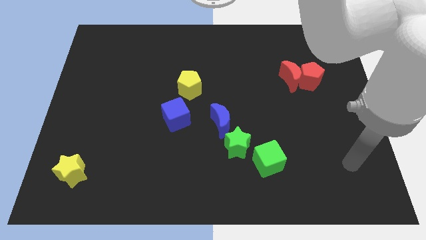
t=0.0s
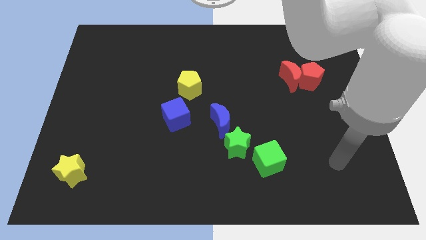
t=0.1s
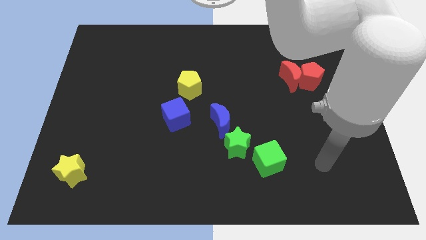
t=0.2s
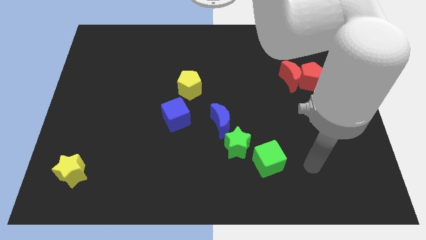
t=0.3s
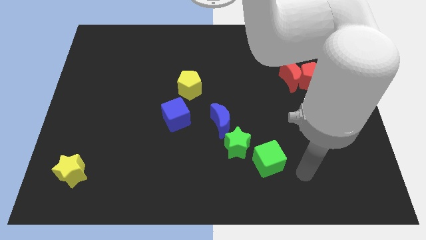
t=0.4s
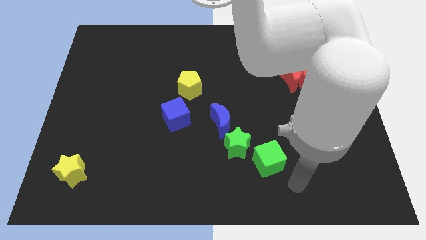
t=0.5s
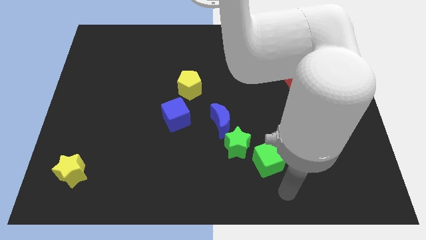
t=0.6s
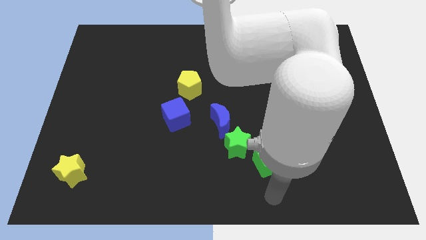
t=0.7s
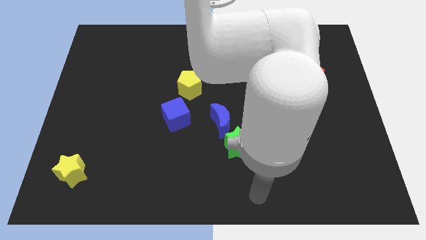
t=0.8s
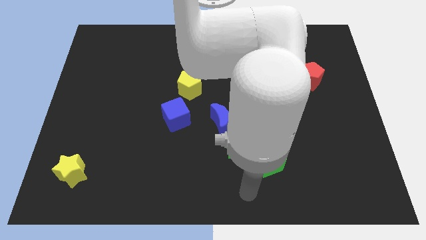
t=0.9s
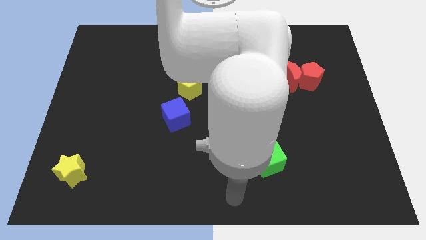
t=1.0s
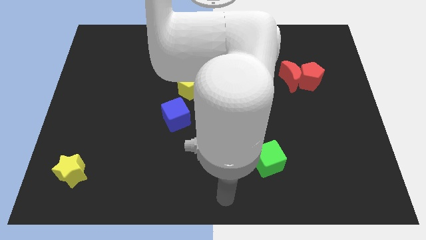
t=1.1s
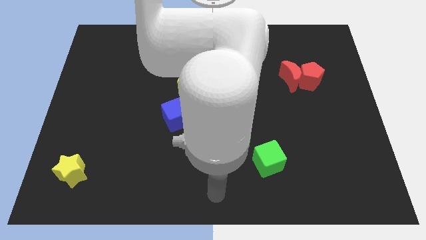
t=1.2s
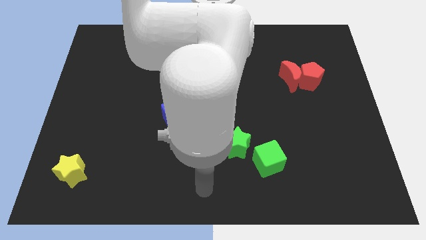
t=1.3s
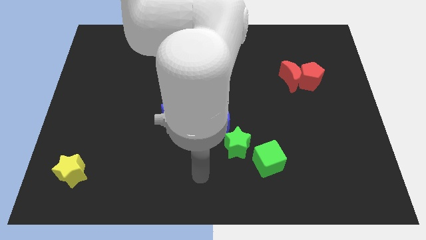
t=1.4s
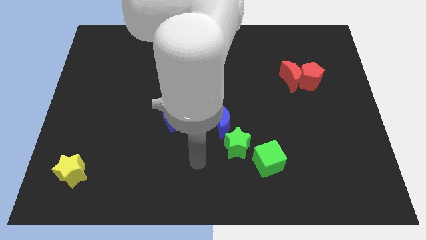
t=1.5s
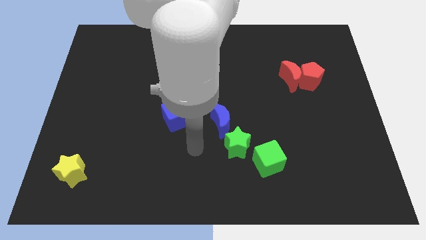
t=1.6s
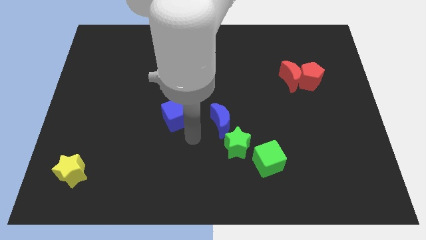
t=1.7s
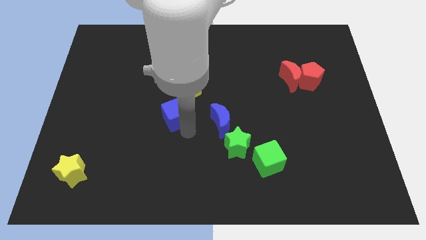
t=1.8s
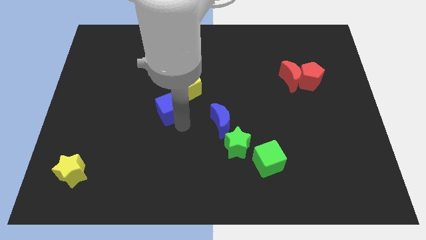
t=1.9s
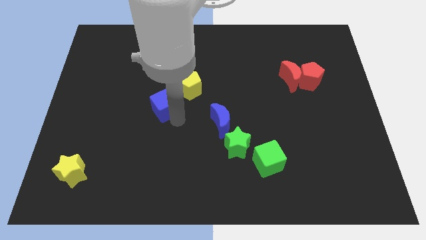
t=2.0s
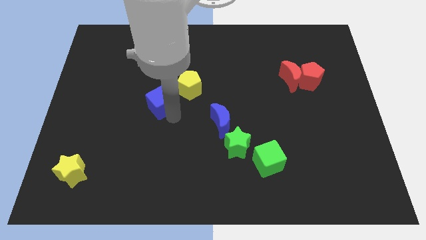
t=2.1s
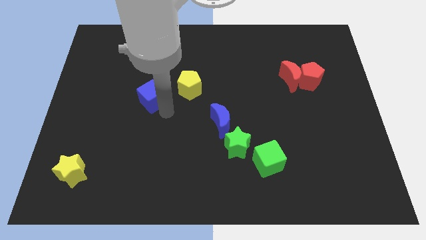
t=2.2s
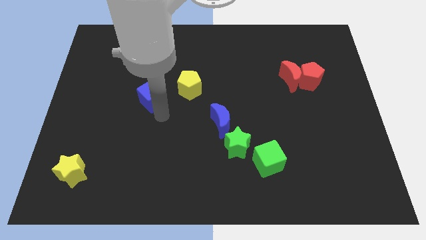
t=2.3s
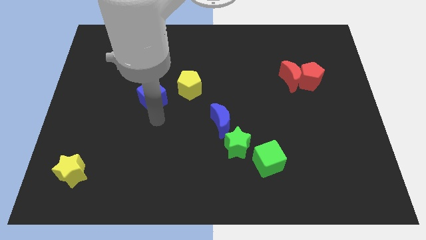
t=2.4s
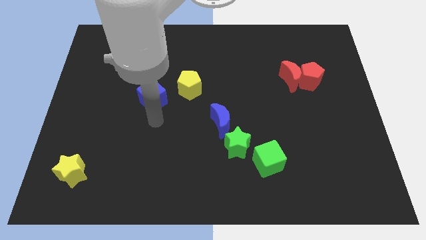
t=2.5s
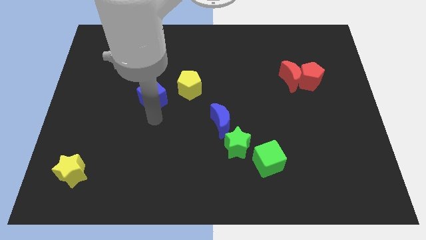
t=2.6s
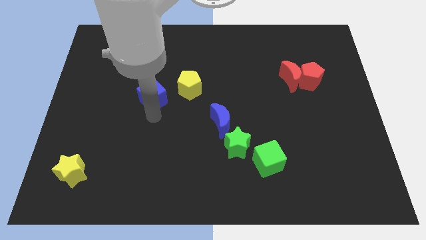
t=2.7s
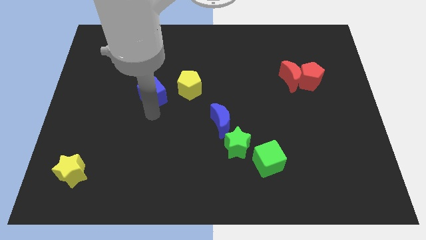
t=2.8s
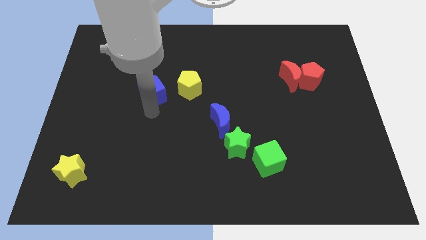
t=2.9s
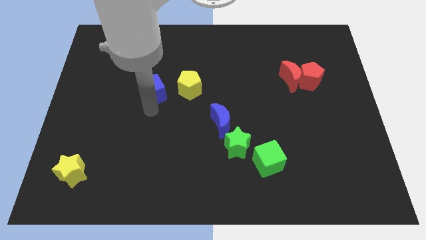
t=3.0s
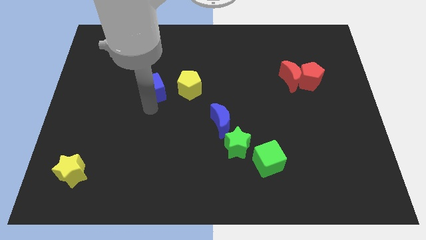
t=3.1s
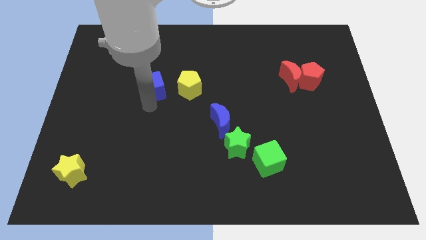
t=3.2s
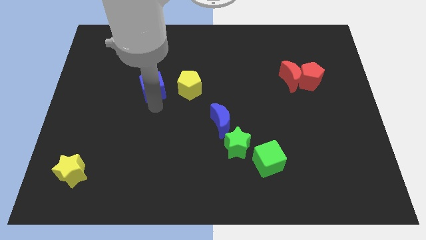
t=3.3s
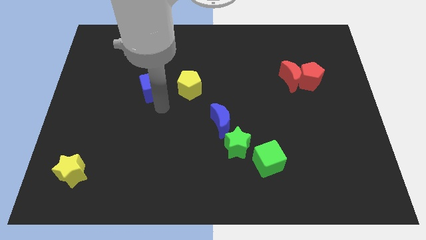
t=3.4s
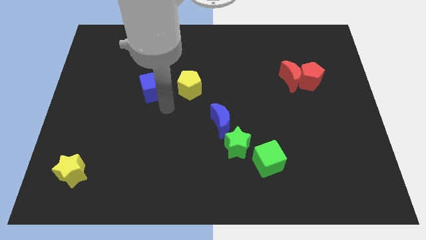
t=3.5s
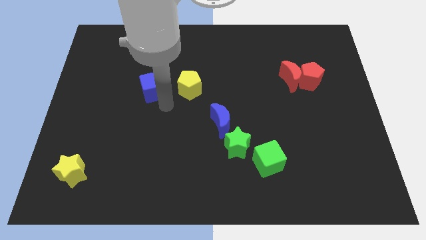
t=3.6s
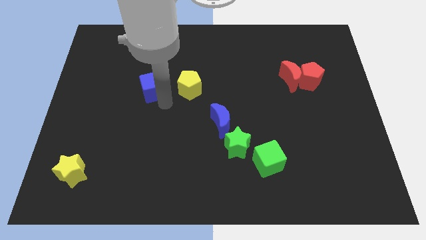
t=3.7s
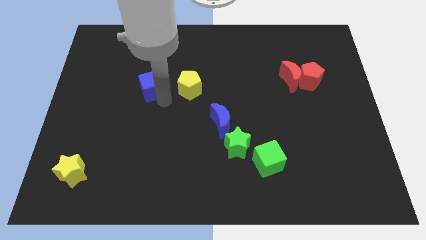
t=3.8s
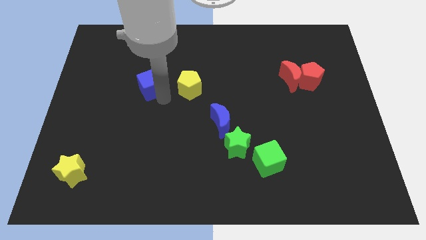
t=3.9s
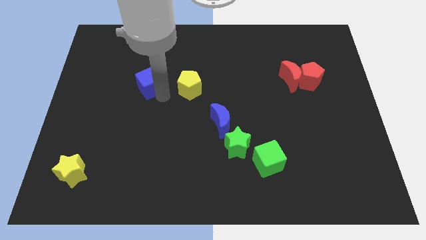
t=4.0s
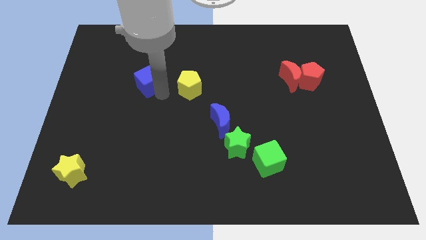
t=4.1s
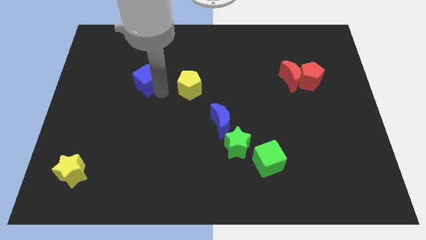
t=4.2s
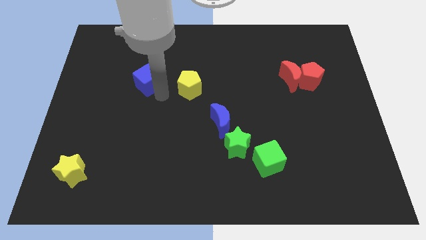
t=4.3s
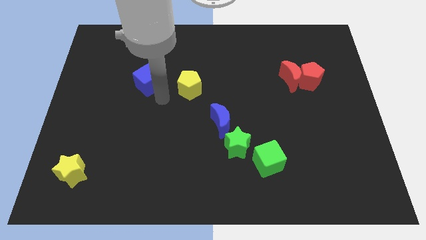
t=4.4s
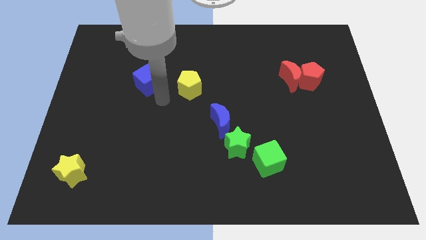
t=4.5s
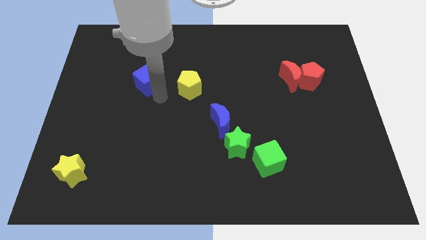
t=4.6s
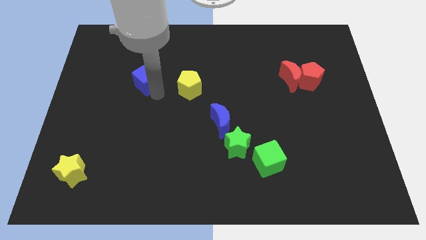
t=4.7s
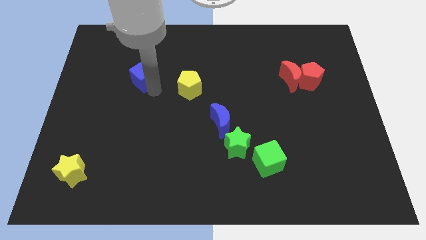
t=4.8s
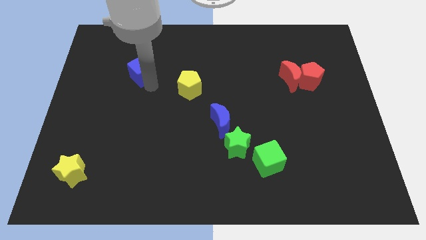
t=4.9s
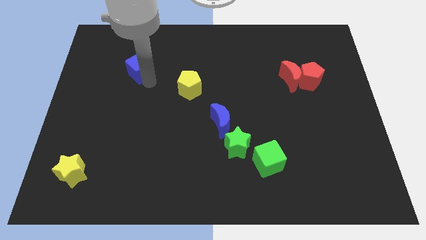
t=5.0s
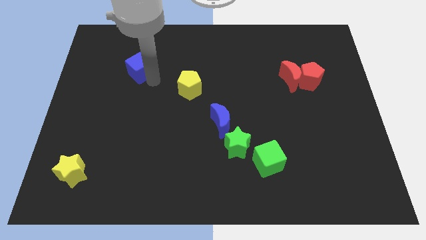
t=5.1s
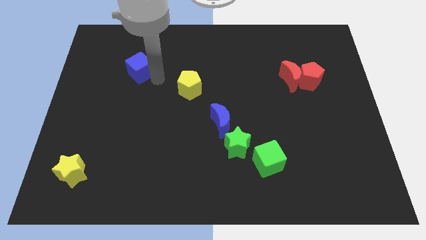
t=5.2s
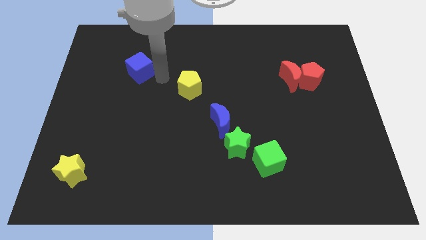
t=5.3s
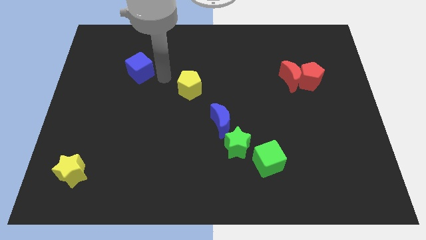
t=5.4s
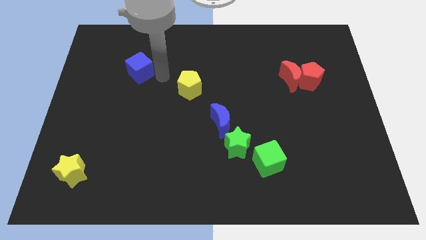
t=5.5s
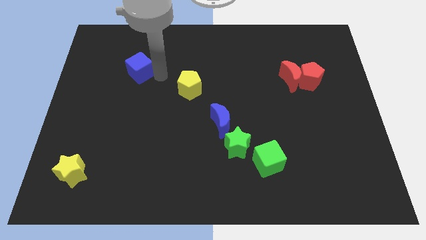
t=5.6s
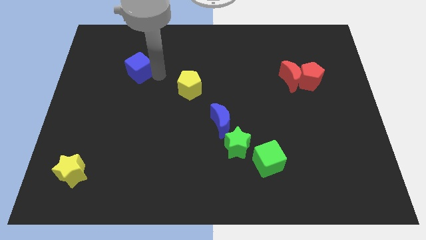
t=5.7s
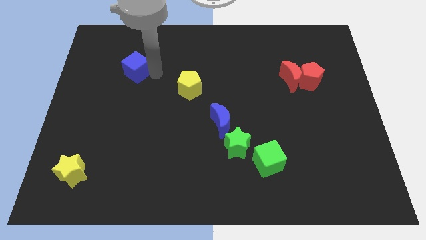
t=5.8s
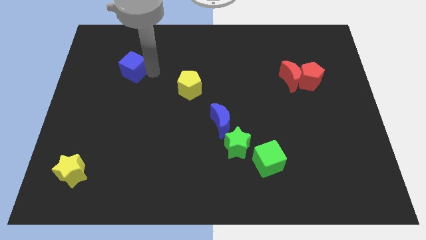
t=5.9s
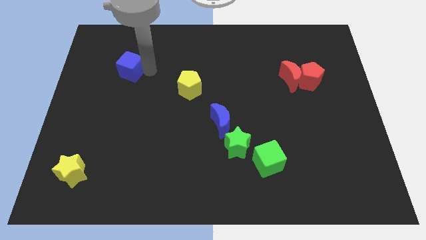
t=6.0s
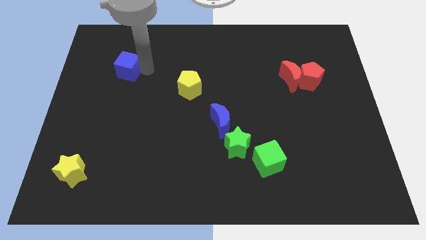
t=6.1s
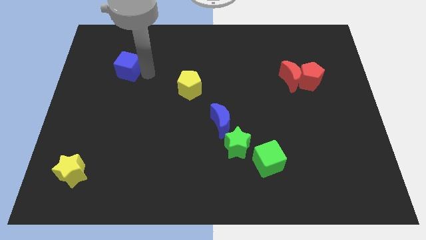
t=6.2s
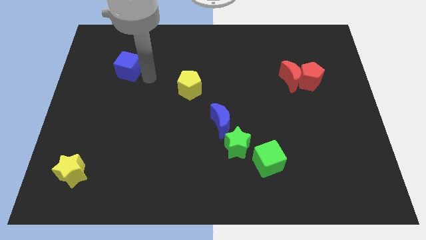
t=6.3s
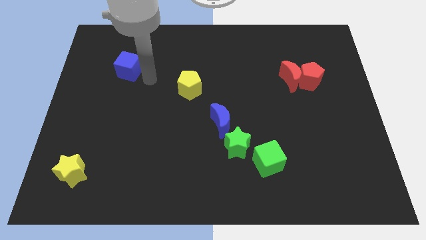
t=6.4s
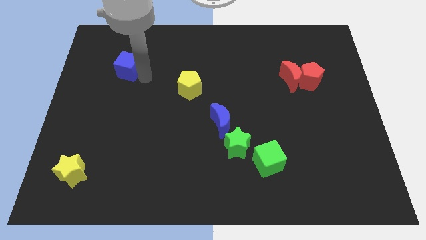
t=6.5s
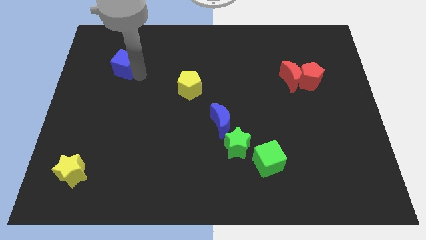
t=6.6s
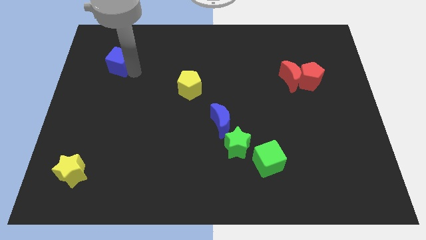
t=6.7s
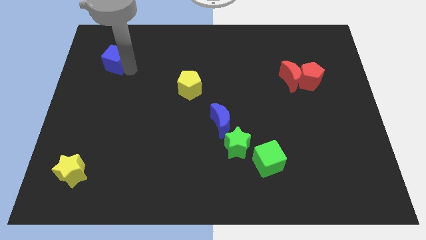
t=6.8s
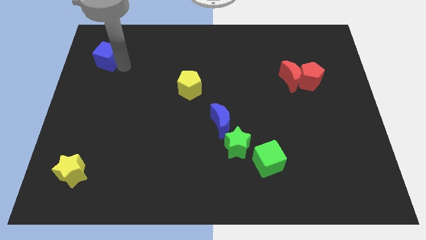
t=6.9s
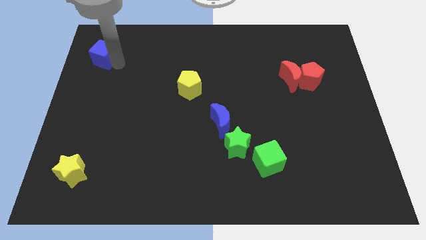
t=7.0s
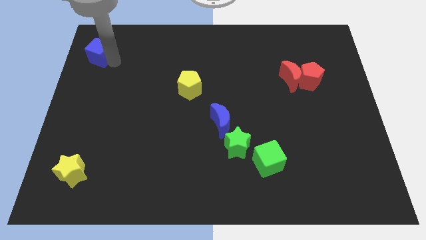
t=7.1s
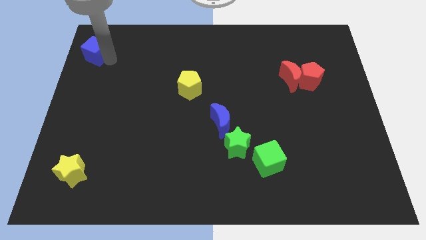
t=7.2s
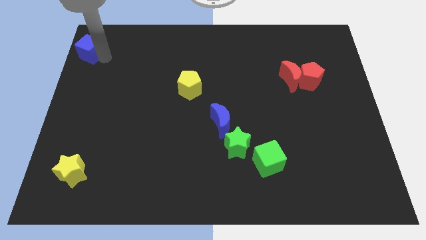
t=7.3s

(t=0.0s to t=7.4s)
put the blue cube to the top left corner
